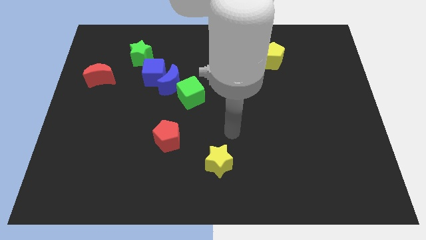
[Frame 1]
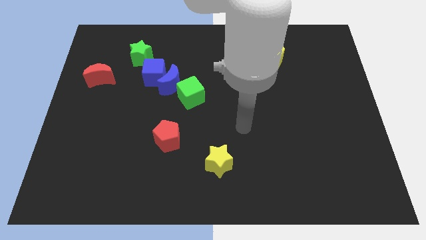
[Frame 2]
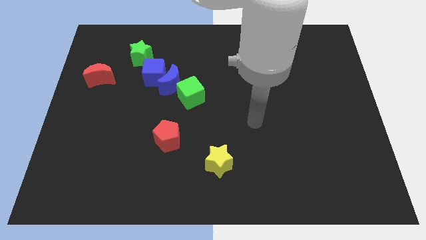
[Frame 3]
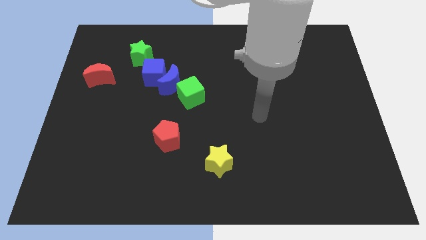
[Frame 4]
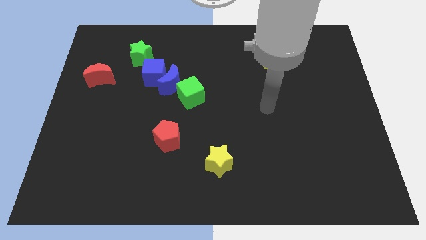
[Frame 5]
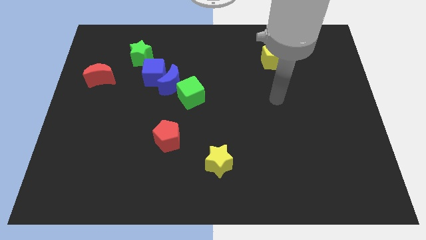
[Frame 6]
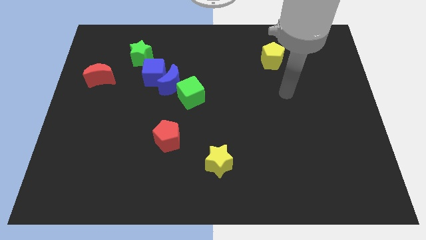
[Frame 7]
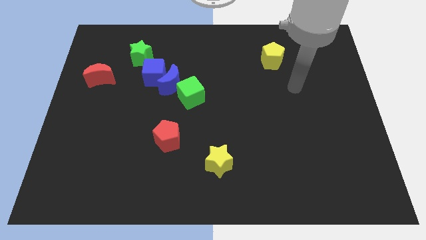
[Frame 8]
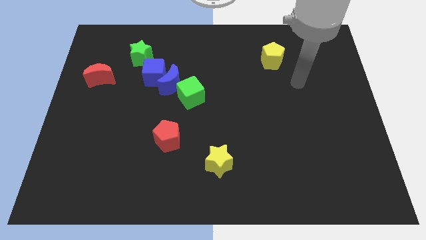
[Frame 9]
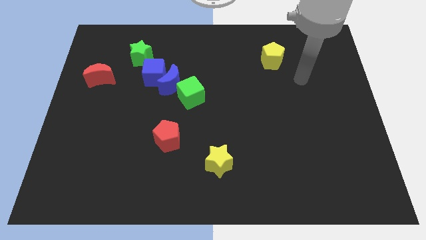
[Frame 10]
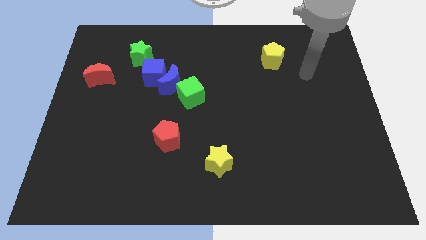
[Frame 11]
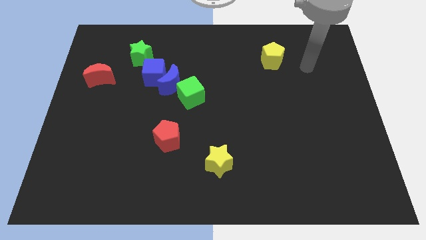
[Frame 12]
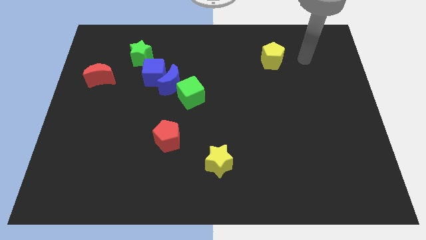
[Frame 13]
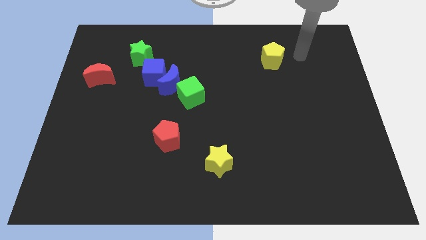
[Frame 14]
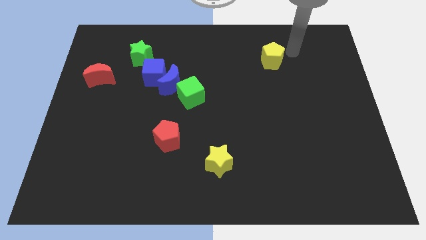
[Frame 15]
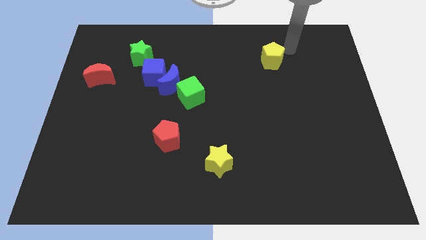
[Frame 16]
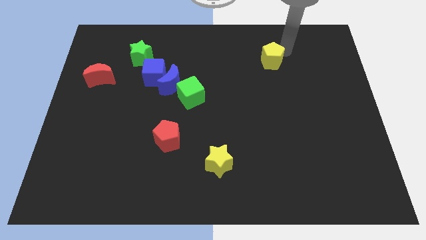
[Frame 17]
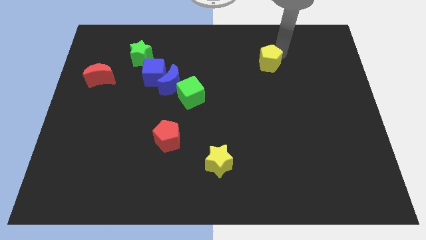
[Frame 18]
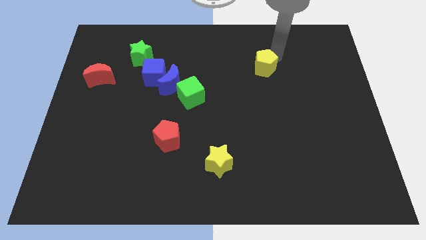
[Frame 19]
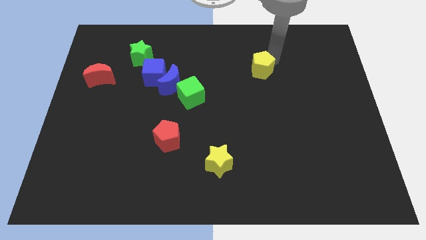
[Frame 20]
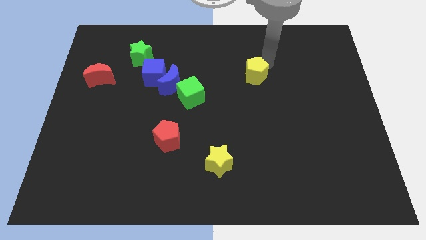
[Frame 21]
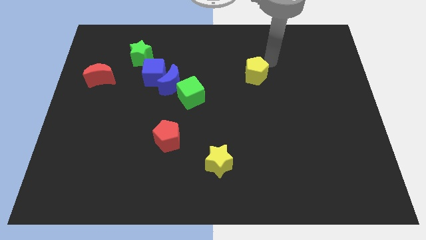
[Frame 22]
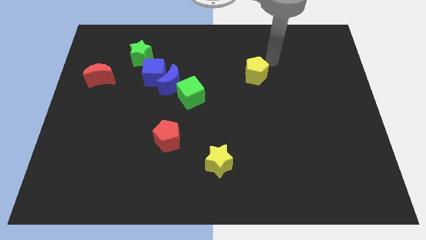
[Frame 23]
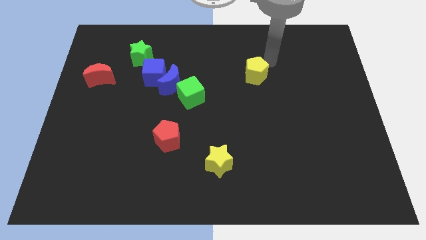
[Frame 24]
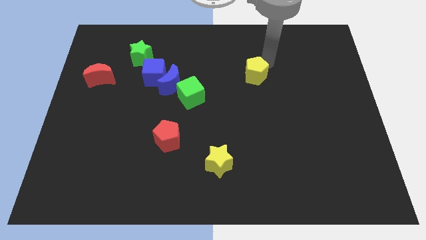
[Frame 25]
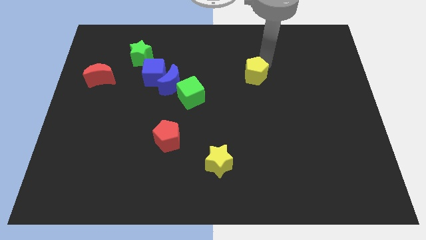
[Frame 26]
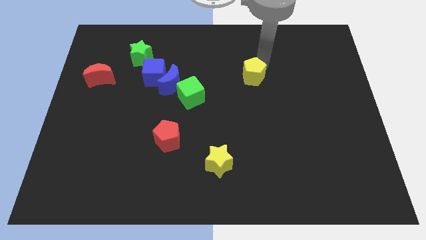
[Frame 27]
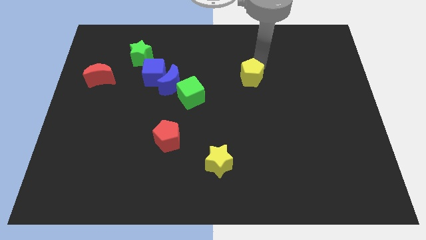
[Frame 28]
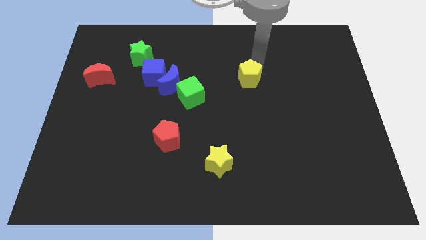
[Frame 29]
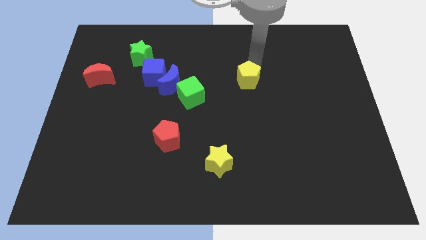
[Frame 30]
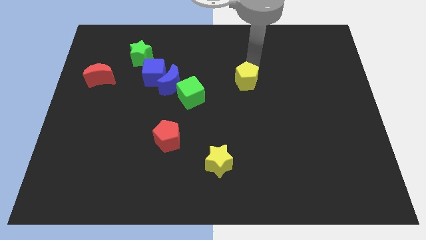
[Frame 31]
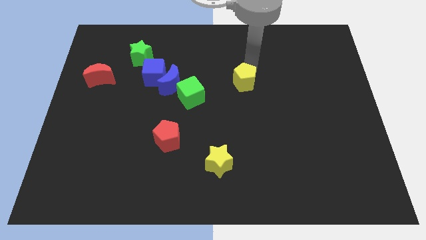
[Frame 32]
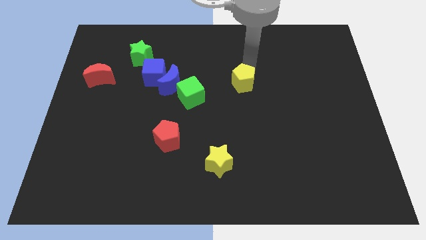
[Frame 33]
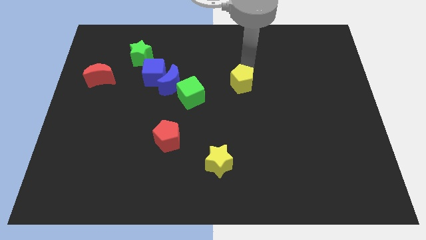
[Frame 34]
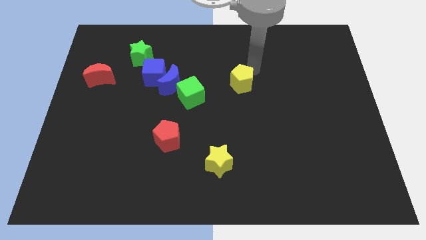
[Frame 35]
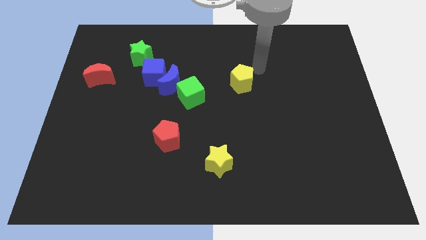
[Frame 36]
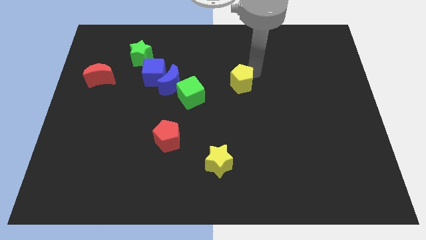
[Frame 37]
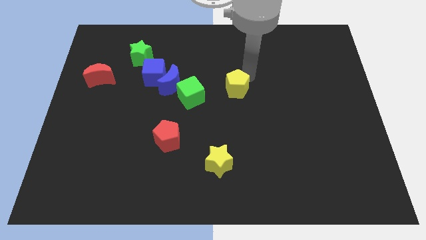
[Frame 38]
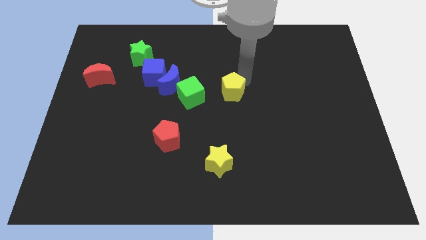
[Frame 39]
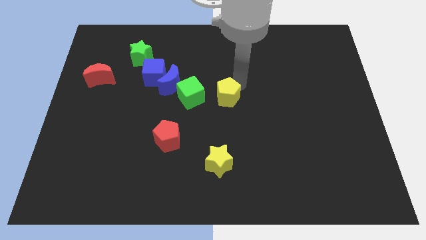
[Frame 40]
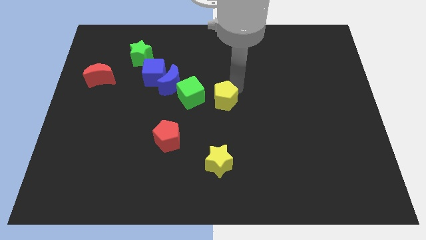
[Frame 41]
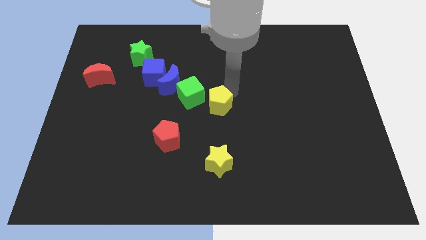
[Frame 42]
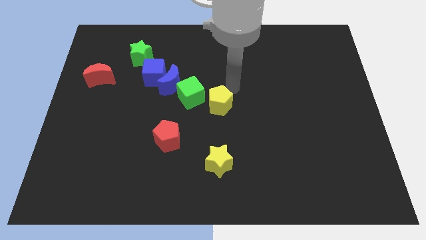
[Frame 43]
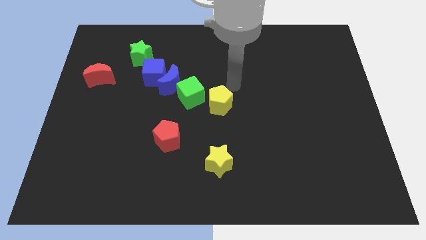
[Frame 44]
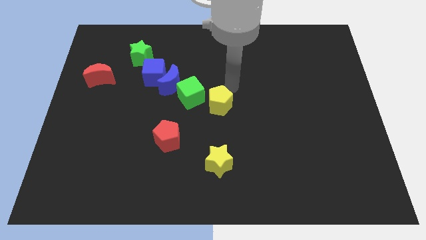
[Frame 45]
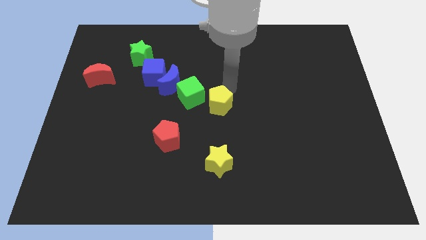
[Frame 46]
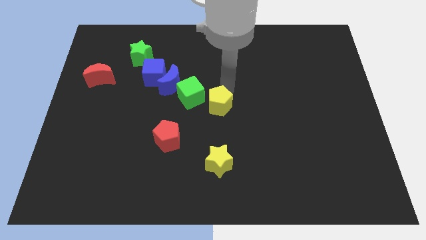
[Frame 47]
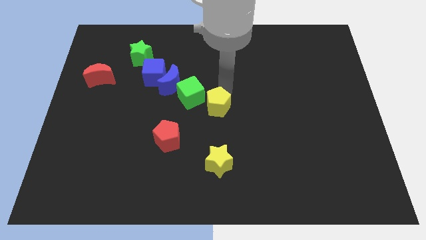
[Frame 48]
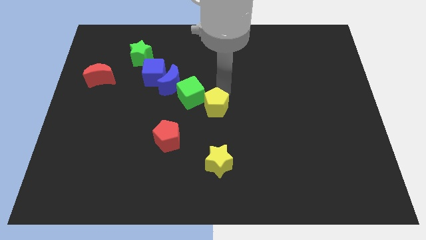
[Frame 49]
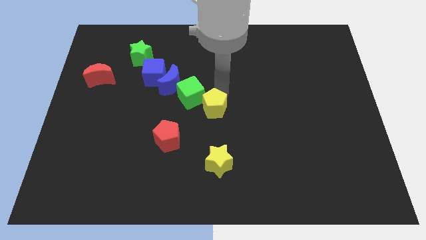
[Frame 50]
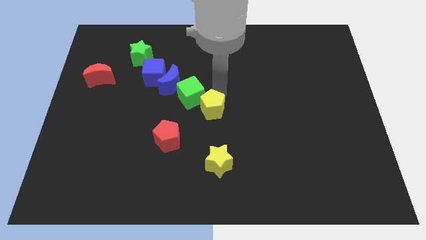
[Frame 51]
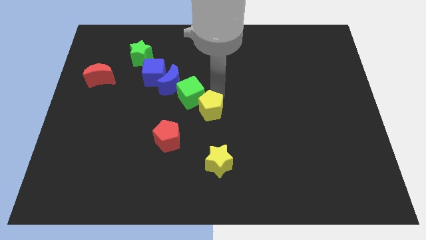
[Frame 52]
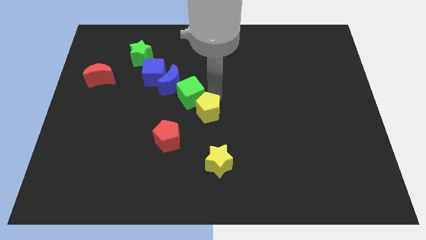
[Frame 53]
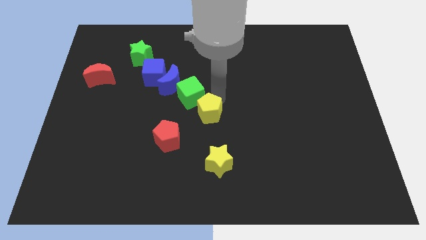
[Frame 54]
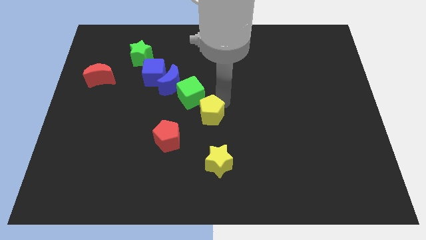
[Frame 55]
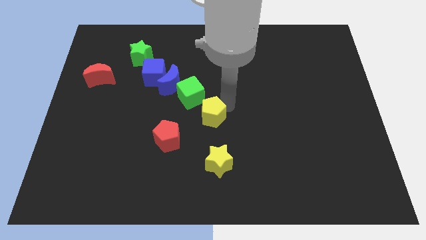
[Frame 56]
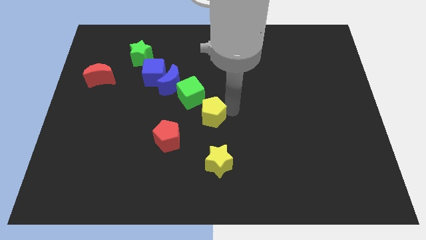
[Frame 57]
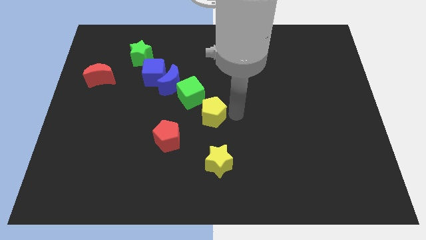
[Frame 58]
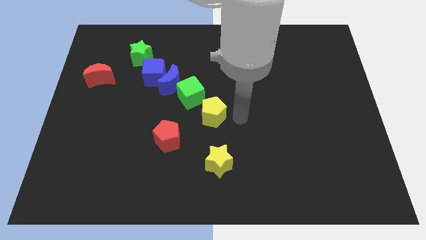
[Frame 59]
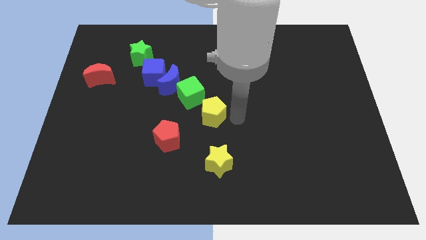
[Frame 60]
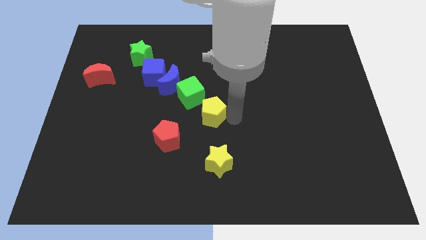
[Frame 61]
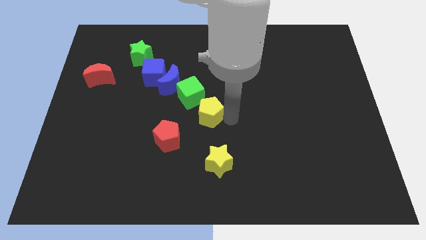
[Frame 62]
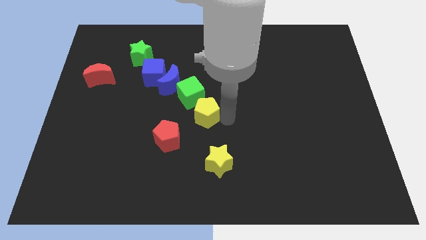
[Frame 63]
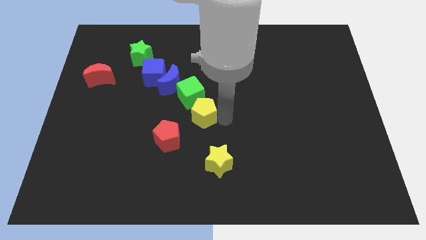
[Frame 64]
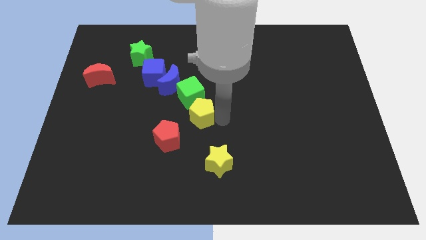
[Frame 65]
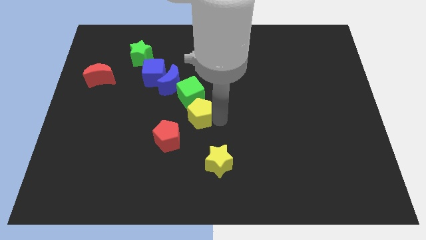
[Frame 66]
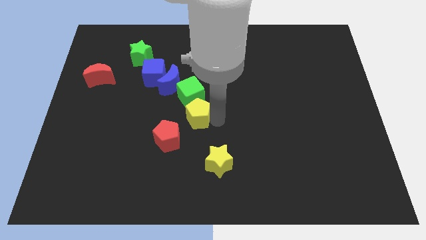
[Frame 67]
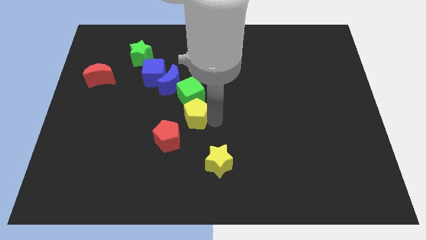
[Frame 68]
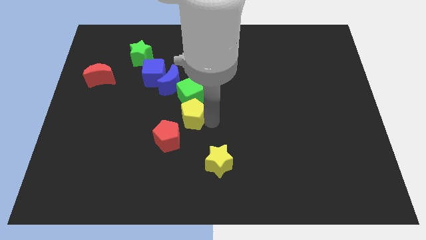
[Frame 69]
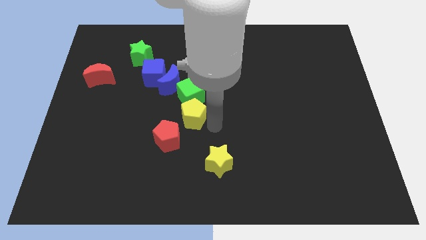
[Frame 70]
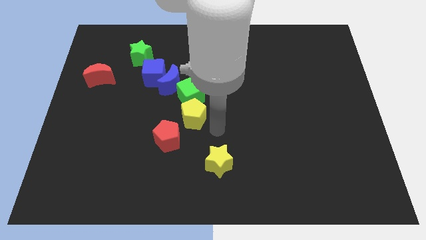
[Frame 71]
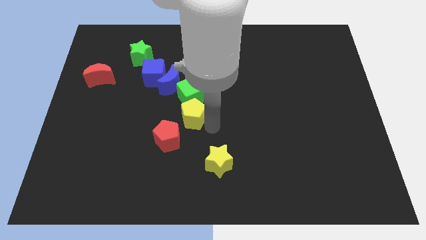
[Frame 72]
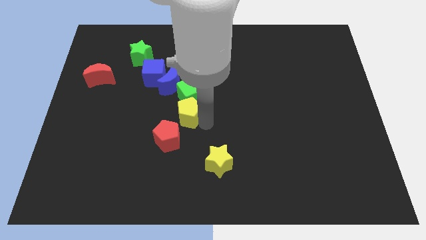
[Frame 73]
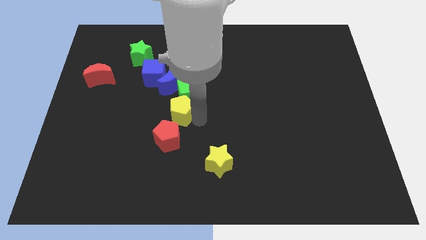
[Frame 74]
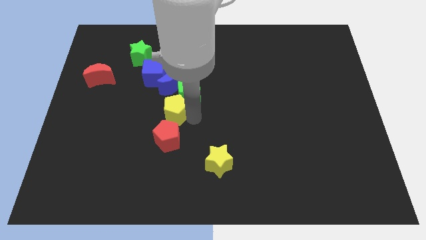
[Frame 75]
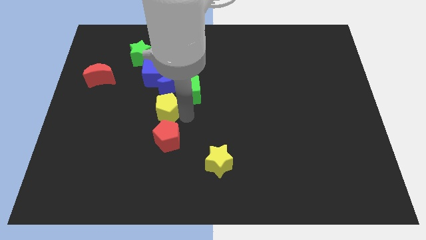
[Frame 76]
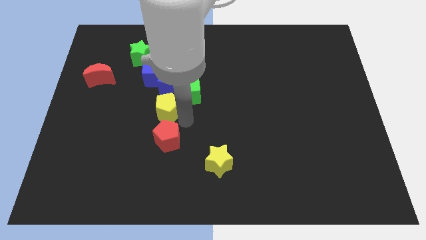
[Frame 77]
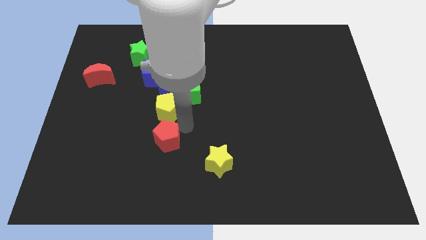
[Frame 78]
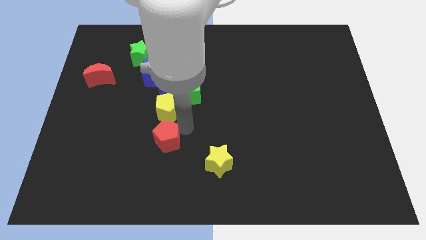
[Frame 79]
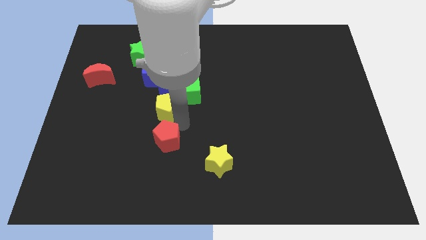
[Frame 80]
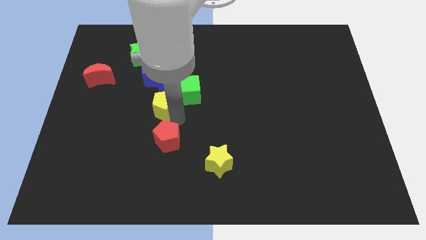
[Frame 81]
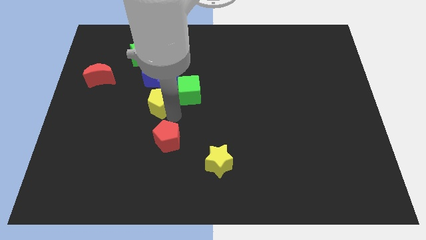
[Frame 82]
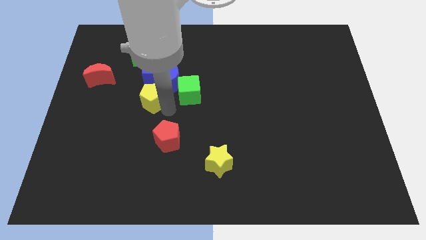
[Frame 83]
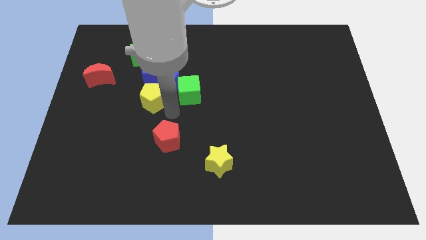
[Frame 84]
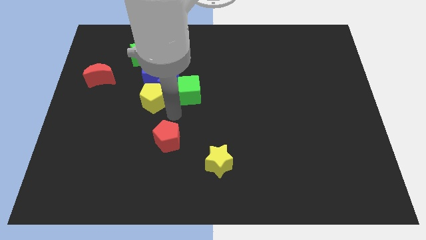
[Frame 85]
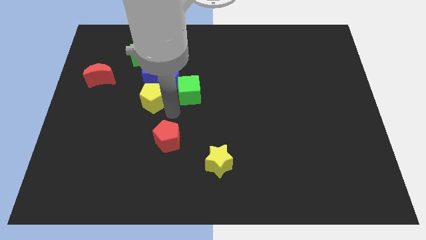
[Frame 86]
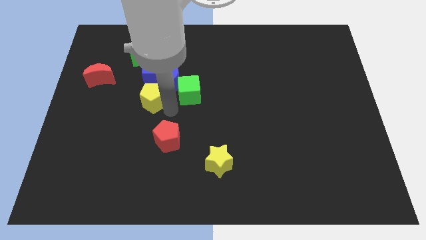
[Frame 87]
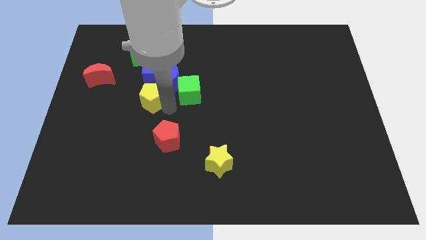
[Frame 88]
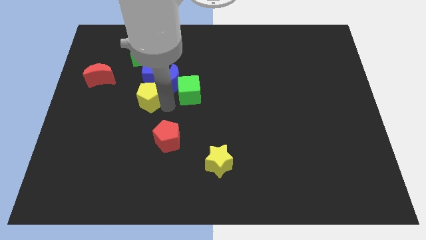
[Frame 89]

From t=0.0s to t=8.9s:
put the yellow pentagon to the bottom side of the green star
